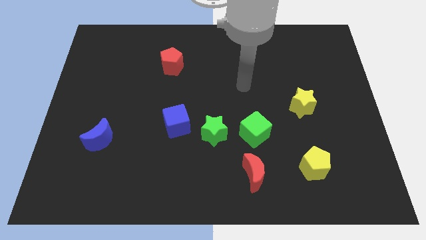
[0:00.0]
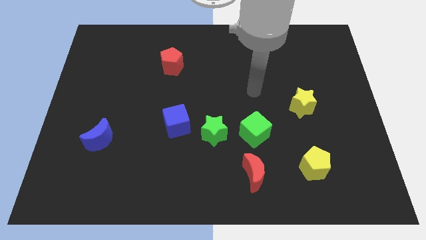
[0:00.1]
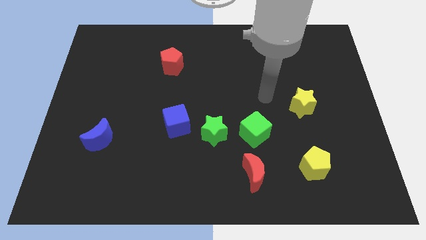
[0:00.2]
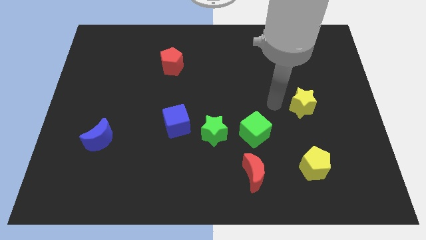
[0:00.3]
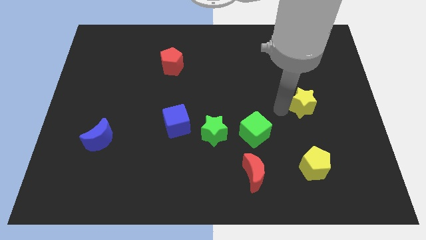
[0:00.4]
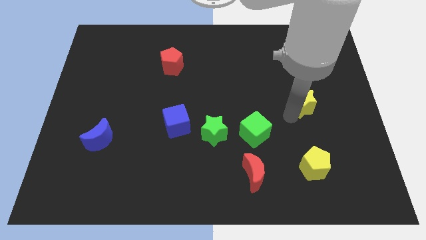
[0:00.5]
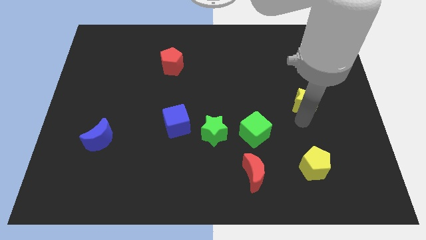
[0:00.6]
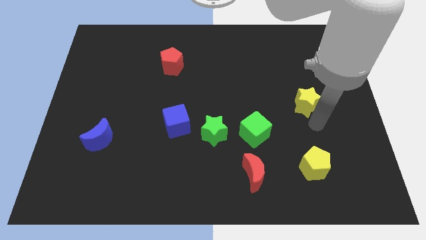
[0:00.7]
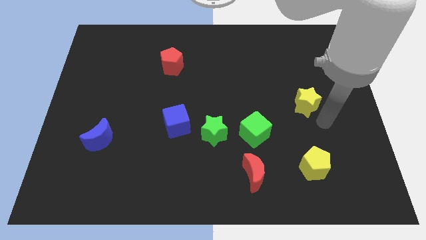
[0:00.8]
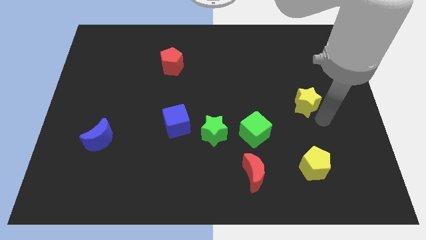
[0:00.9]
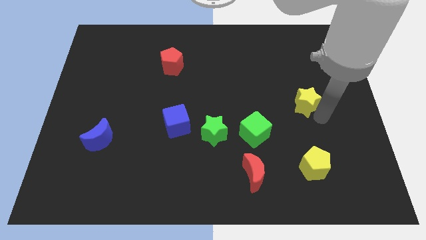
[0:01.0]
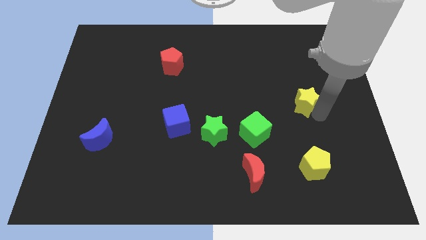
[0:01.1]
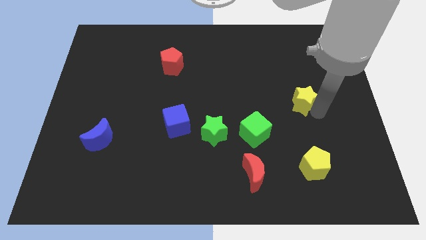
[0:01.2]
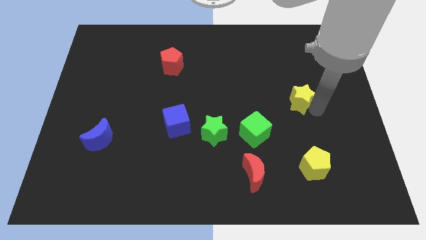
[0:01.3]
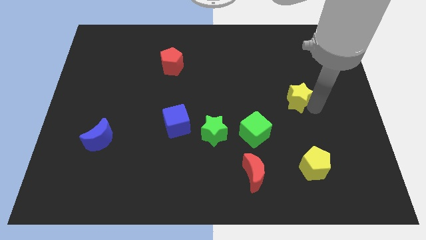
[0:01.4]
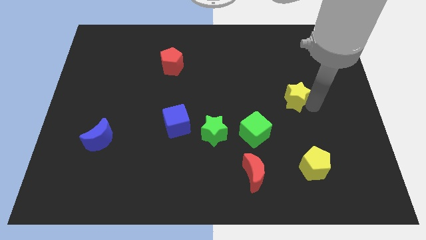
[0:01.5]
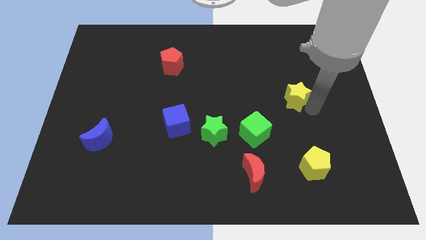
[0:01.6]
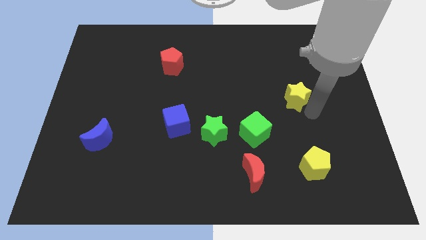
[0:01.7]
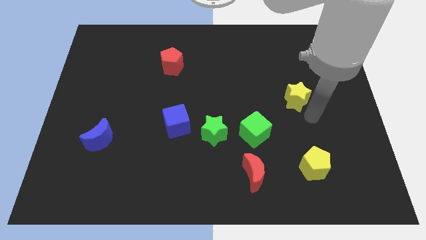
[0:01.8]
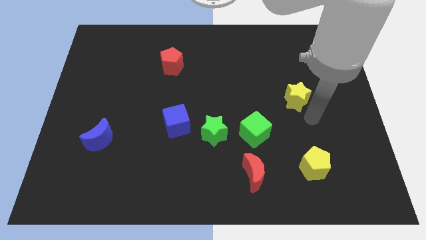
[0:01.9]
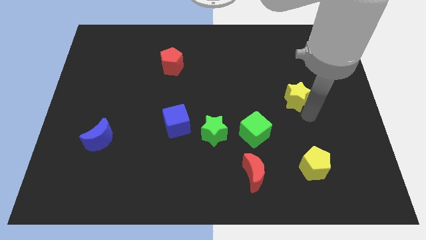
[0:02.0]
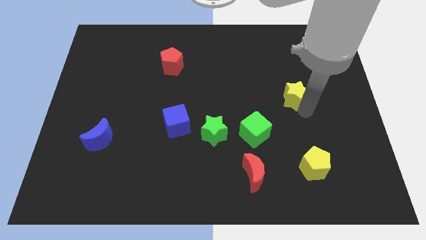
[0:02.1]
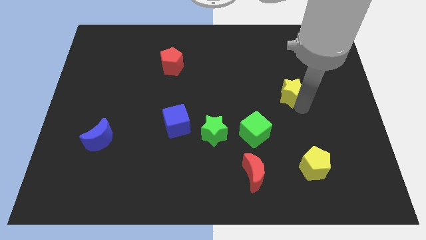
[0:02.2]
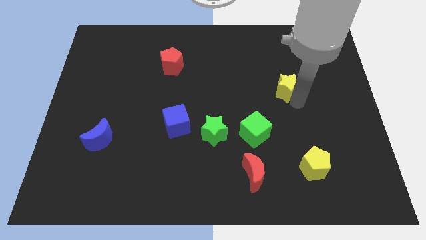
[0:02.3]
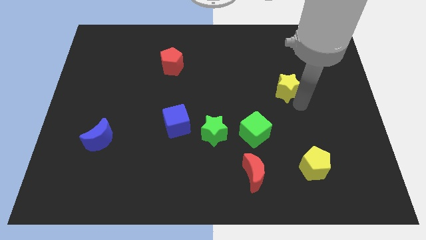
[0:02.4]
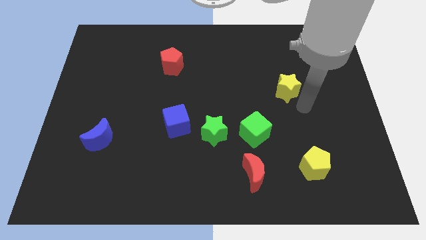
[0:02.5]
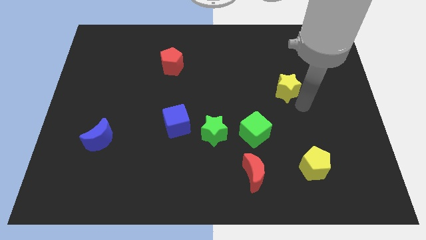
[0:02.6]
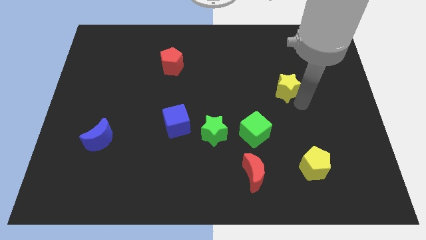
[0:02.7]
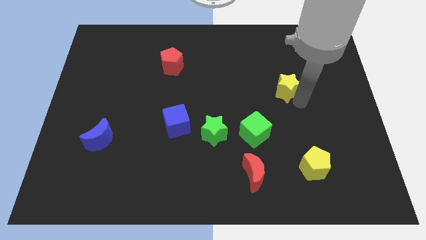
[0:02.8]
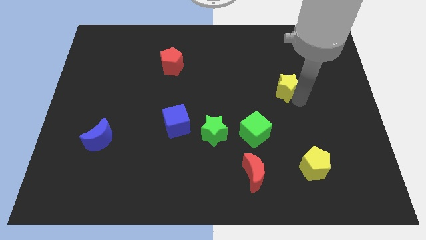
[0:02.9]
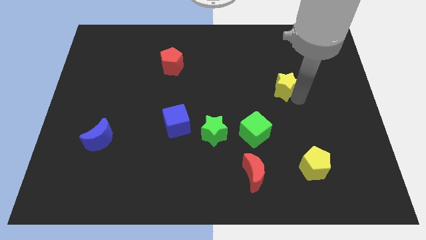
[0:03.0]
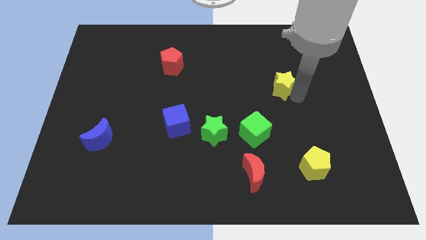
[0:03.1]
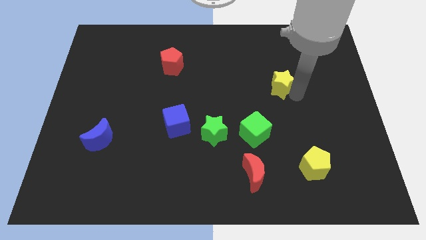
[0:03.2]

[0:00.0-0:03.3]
move the yellow star upwards and left a little

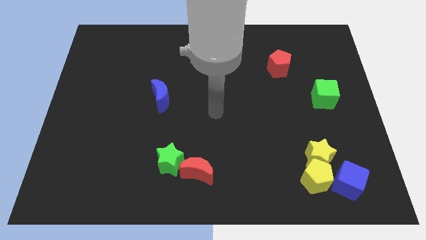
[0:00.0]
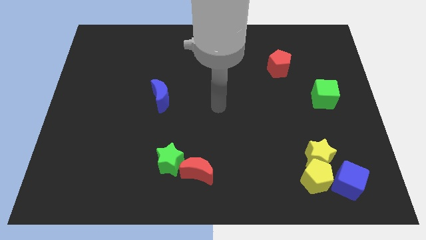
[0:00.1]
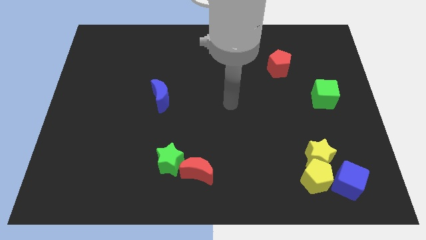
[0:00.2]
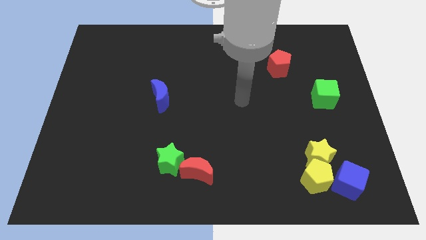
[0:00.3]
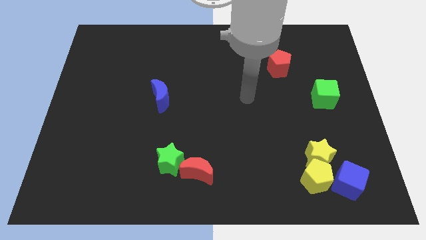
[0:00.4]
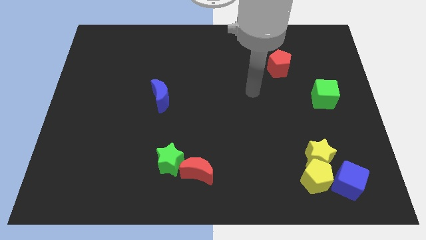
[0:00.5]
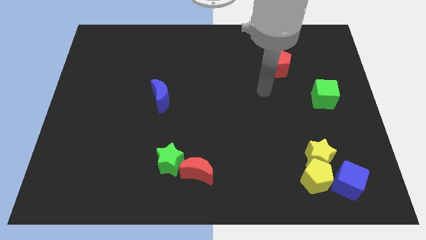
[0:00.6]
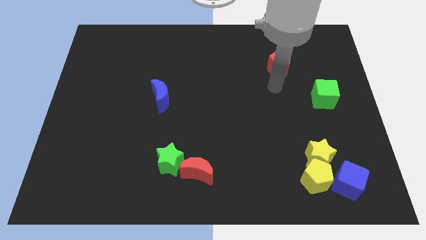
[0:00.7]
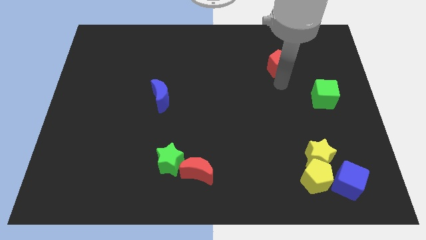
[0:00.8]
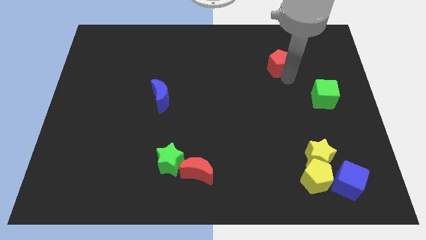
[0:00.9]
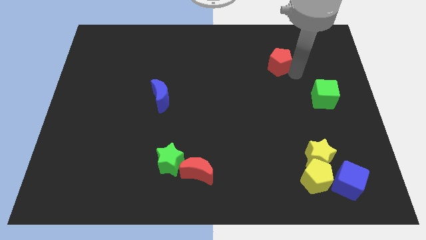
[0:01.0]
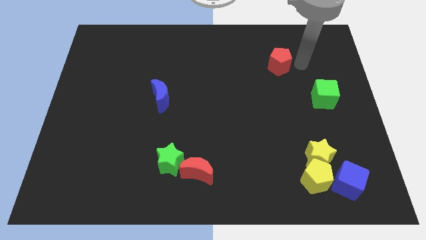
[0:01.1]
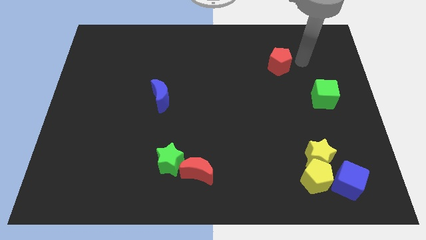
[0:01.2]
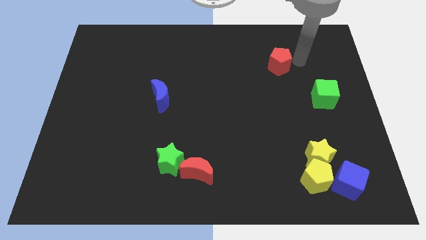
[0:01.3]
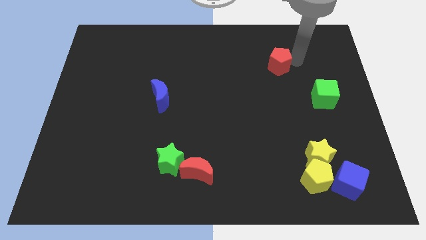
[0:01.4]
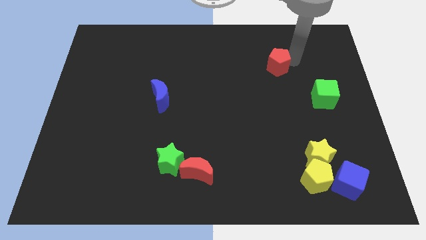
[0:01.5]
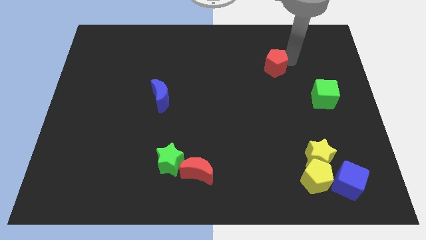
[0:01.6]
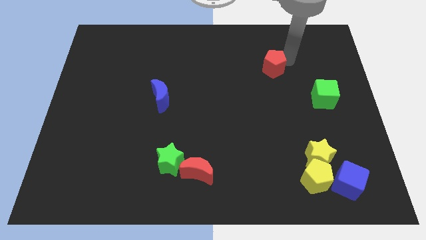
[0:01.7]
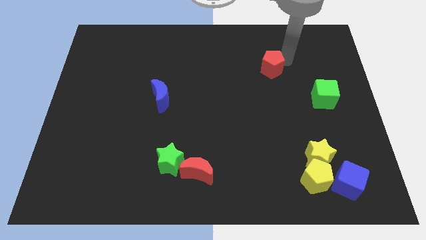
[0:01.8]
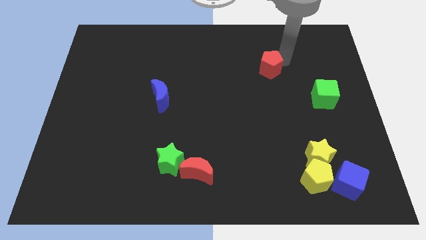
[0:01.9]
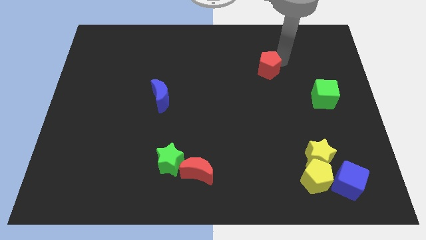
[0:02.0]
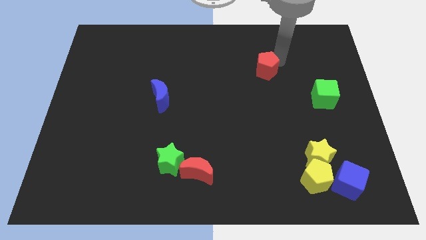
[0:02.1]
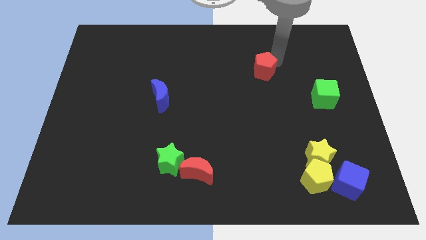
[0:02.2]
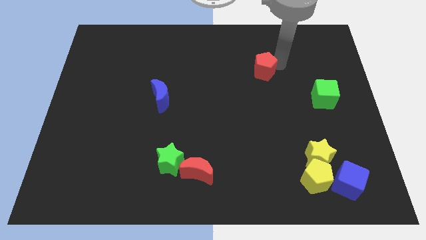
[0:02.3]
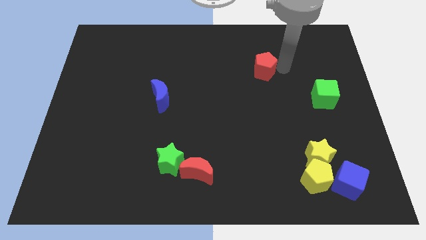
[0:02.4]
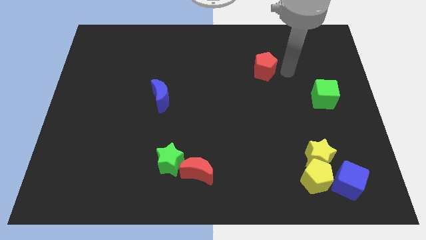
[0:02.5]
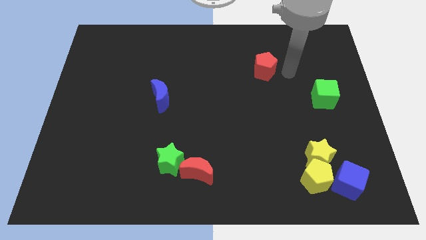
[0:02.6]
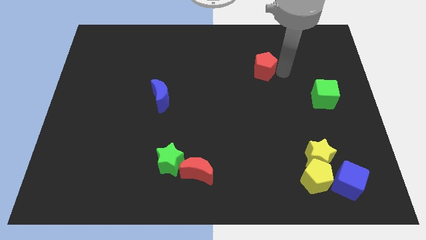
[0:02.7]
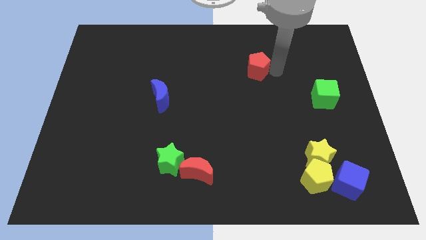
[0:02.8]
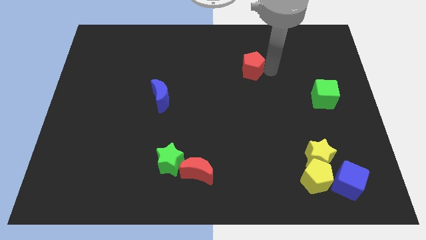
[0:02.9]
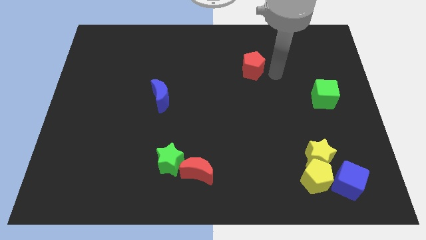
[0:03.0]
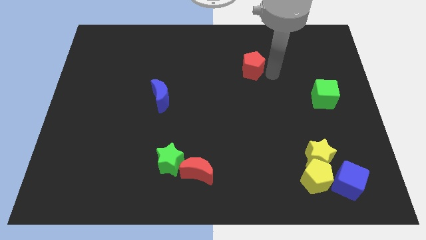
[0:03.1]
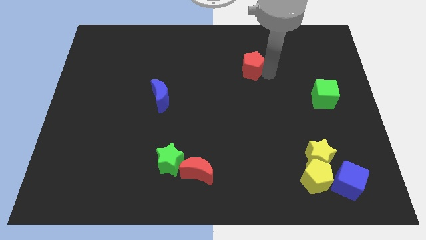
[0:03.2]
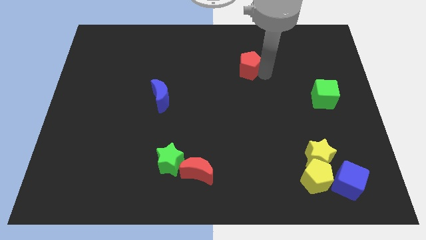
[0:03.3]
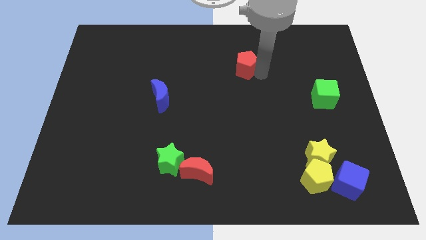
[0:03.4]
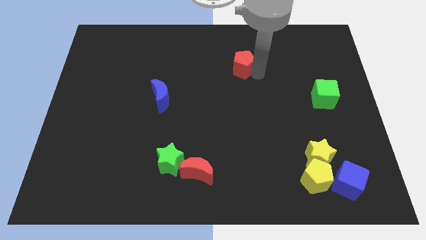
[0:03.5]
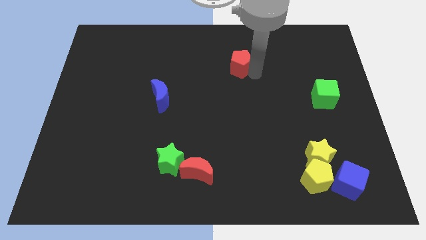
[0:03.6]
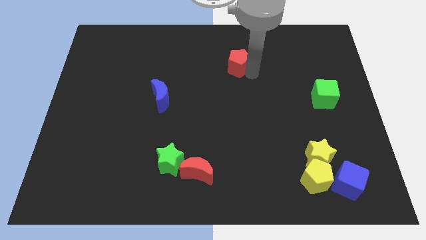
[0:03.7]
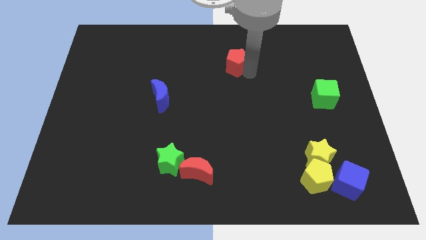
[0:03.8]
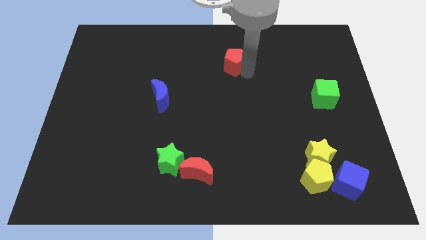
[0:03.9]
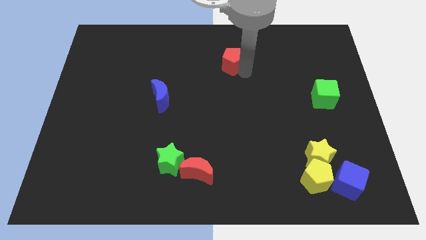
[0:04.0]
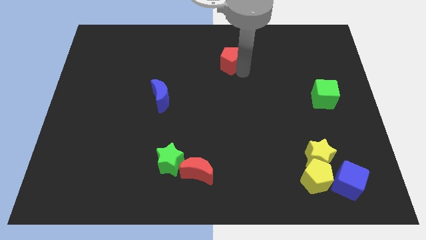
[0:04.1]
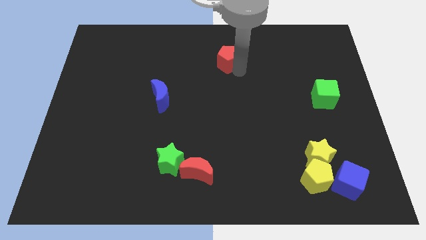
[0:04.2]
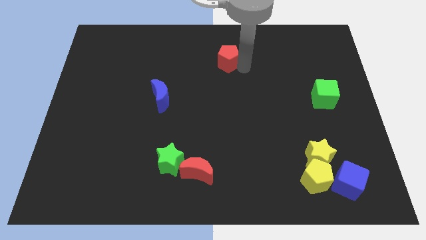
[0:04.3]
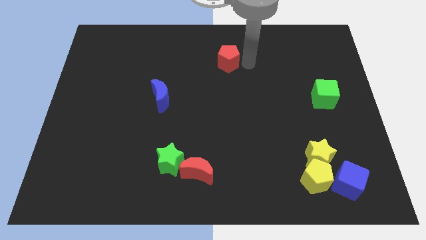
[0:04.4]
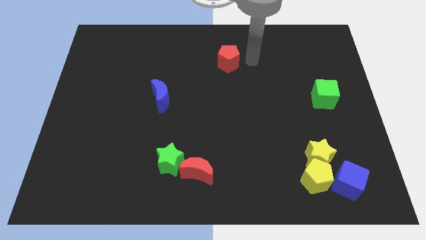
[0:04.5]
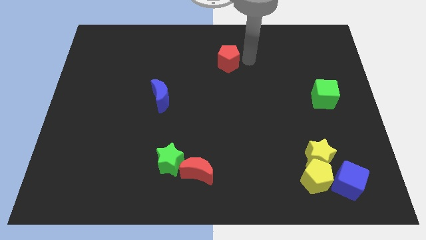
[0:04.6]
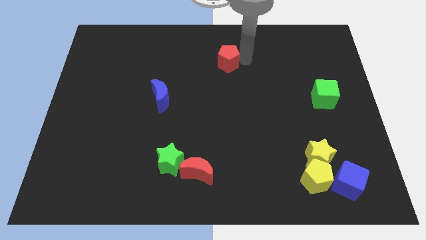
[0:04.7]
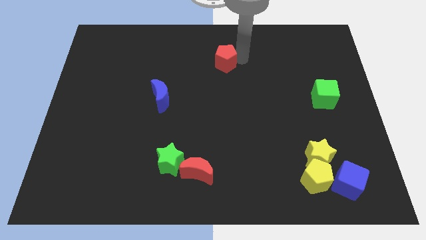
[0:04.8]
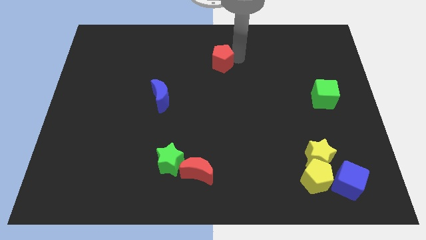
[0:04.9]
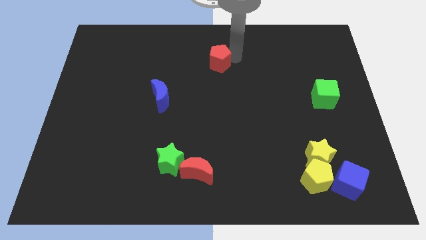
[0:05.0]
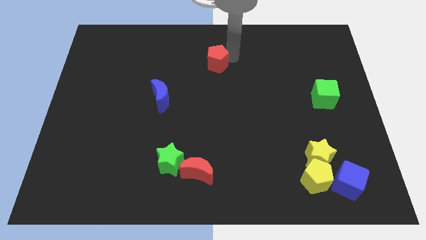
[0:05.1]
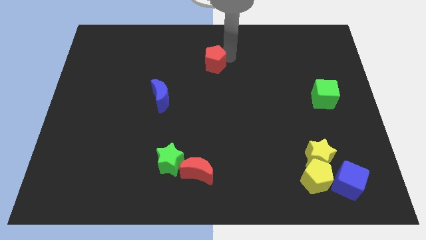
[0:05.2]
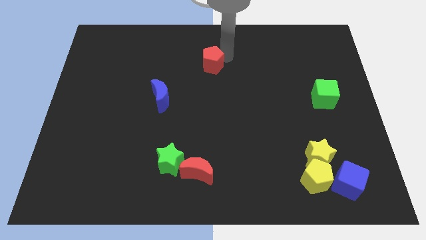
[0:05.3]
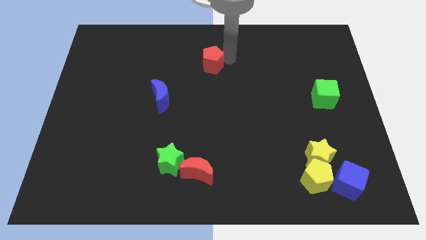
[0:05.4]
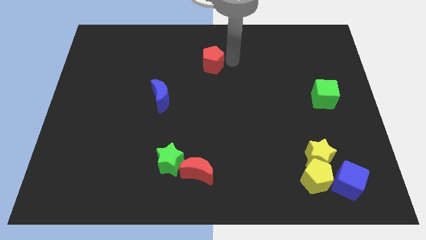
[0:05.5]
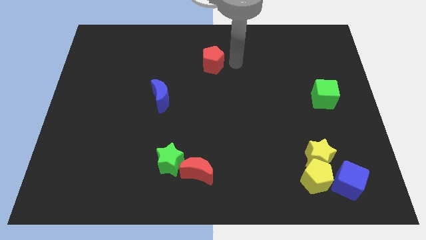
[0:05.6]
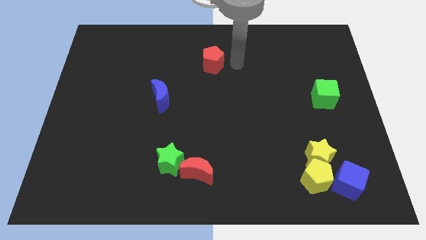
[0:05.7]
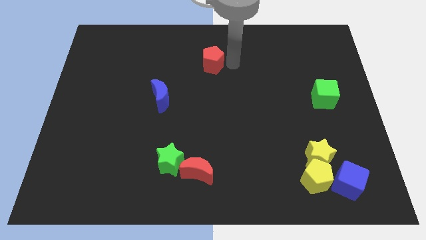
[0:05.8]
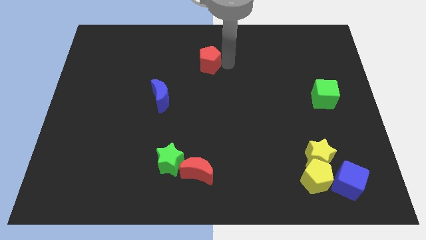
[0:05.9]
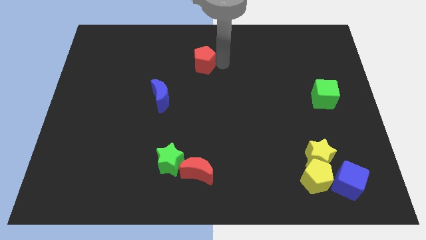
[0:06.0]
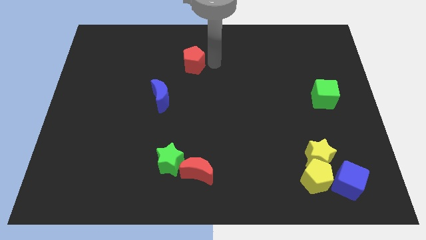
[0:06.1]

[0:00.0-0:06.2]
move the red pentagon left
